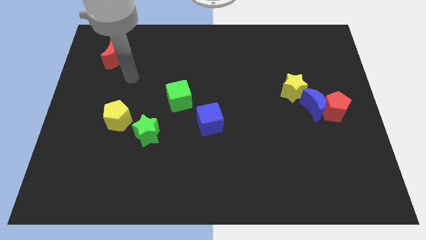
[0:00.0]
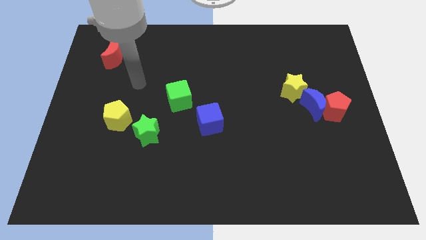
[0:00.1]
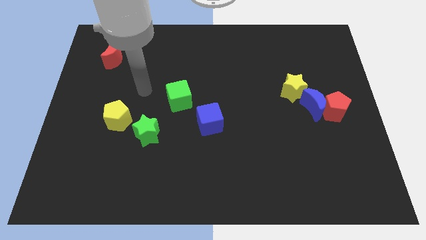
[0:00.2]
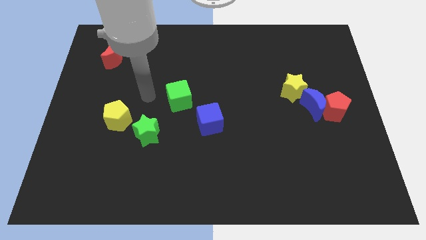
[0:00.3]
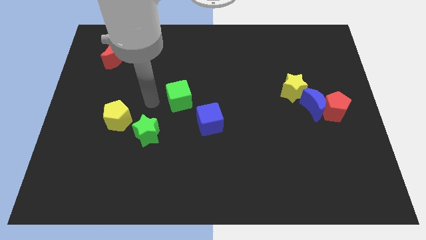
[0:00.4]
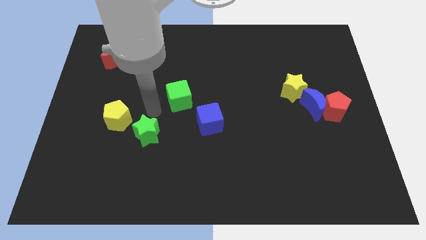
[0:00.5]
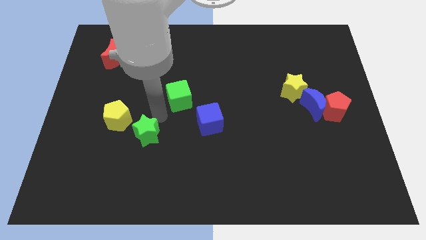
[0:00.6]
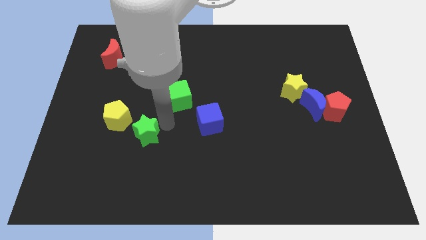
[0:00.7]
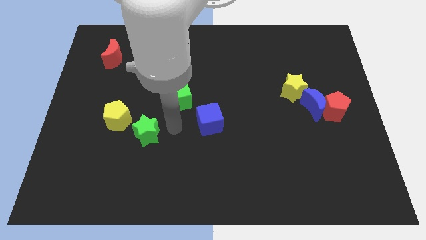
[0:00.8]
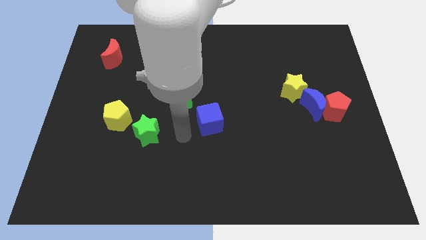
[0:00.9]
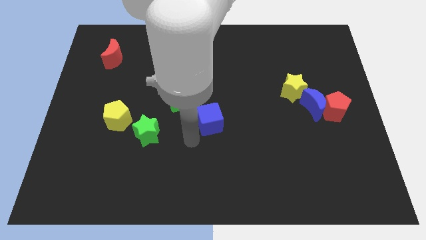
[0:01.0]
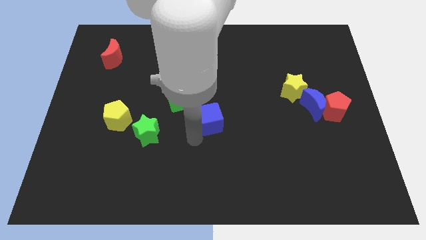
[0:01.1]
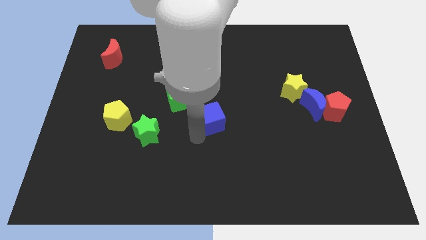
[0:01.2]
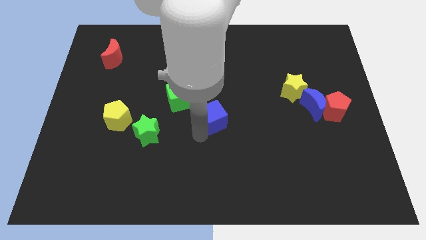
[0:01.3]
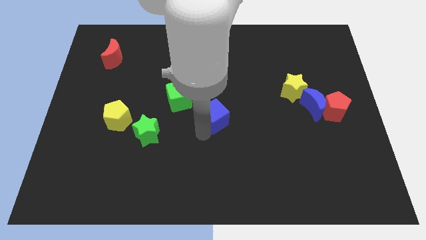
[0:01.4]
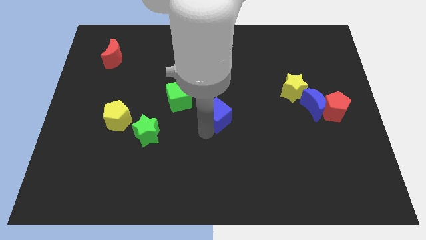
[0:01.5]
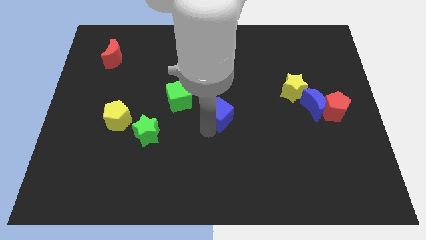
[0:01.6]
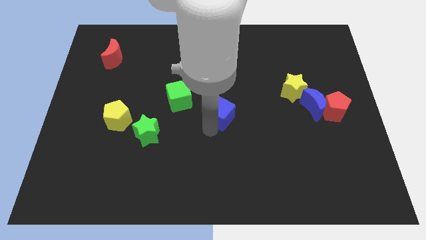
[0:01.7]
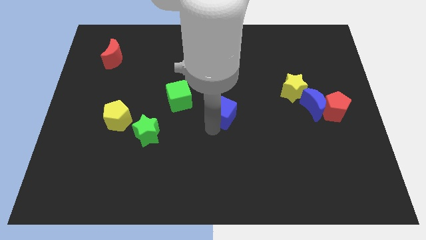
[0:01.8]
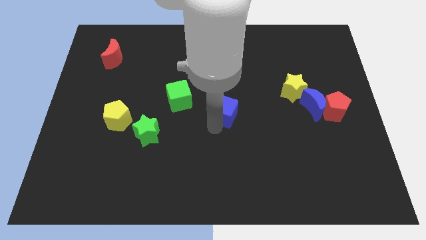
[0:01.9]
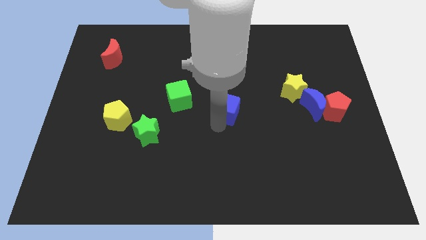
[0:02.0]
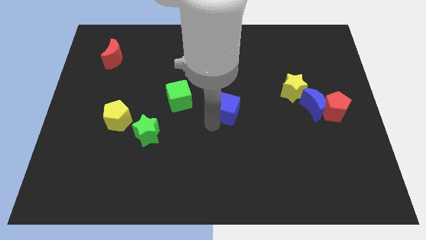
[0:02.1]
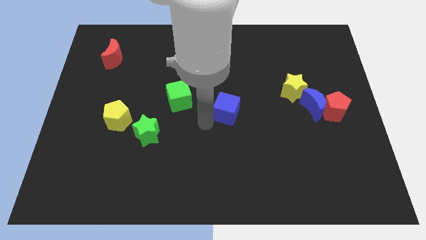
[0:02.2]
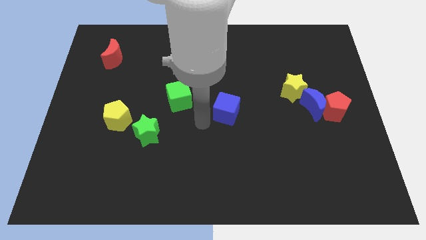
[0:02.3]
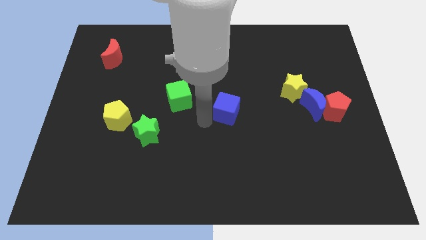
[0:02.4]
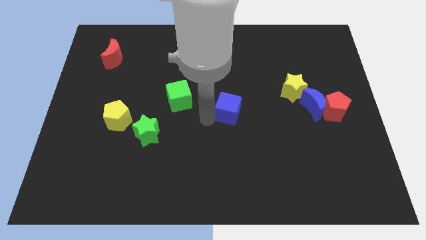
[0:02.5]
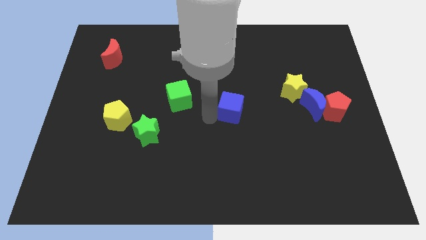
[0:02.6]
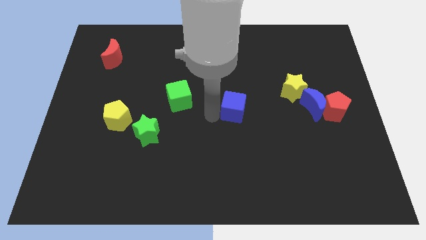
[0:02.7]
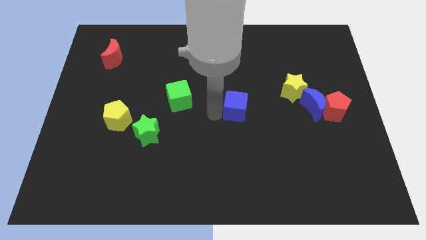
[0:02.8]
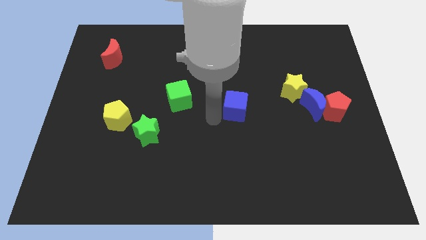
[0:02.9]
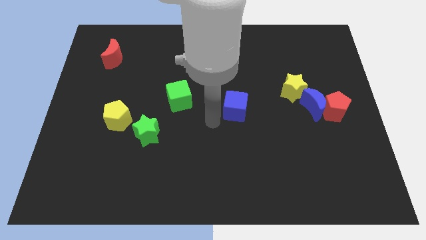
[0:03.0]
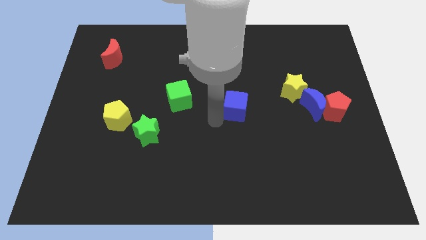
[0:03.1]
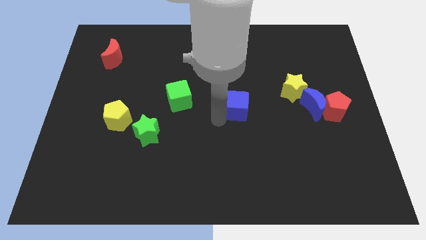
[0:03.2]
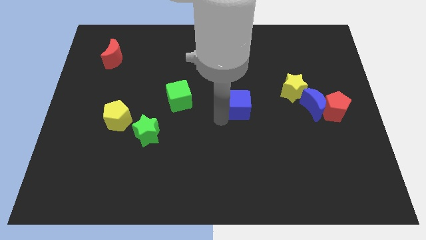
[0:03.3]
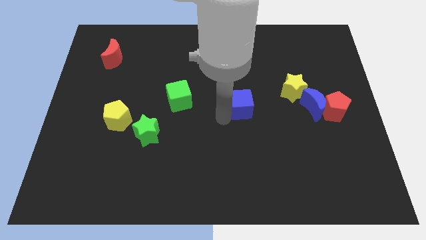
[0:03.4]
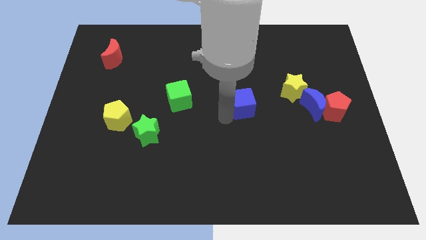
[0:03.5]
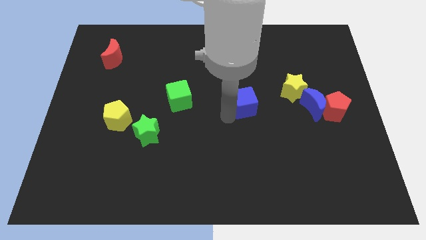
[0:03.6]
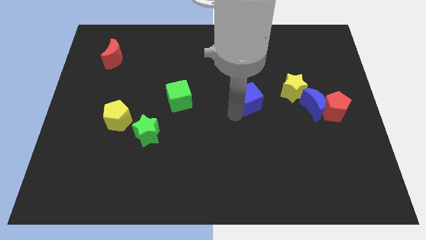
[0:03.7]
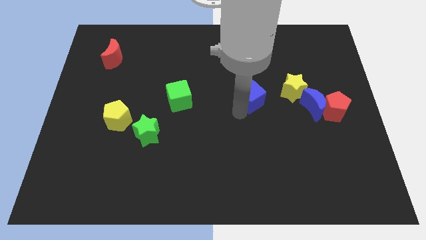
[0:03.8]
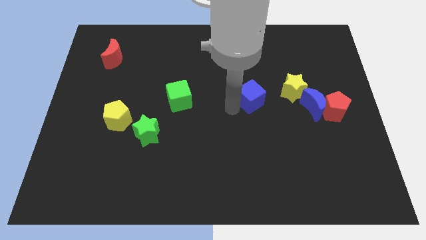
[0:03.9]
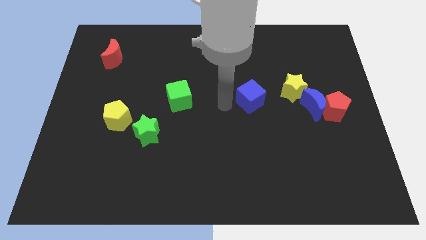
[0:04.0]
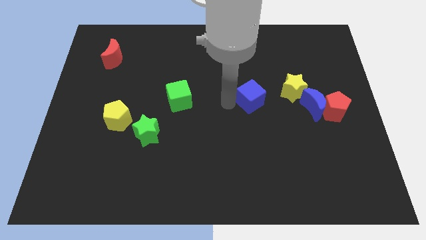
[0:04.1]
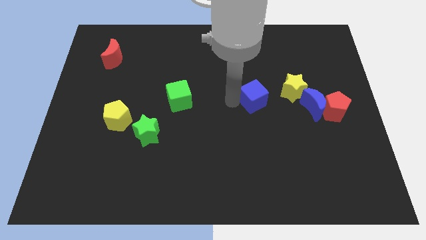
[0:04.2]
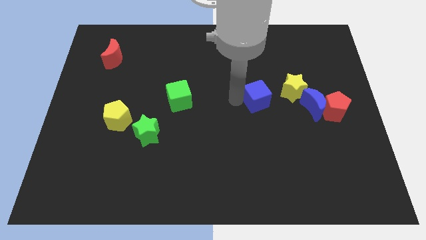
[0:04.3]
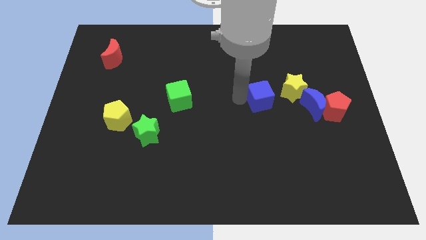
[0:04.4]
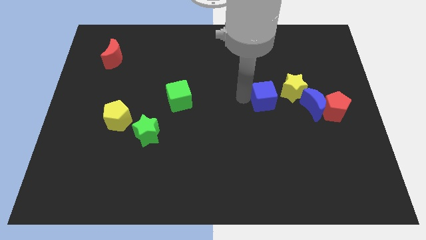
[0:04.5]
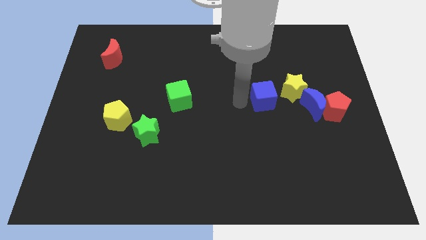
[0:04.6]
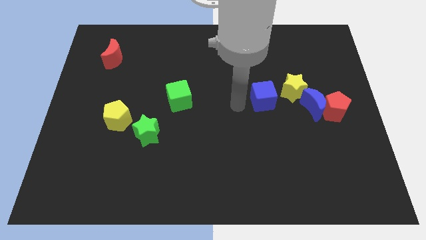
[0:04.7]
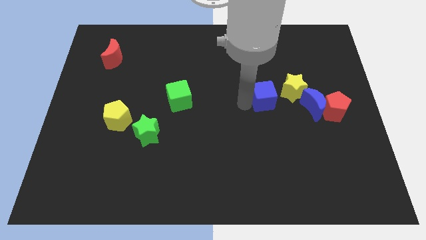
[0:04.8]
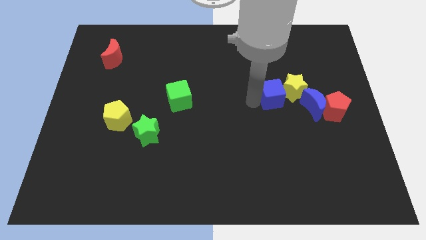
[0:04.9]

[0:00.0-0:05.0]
put the blue cube towards the yellow star

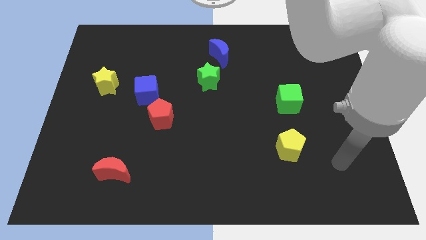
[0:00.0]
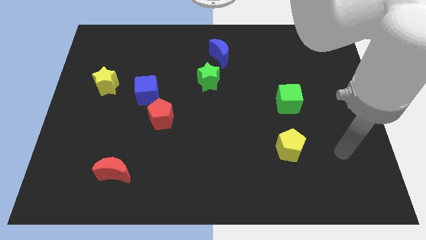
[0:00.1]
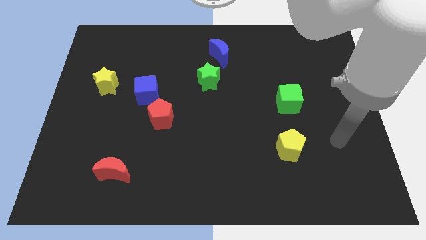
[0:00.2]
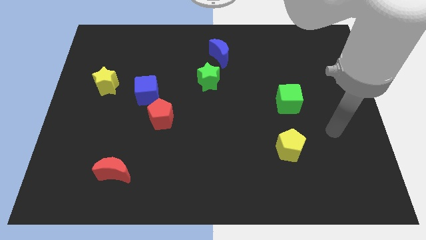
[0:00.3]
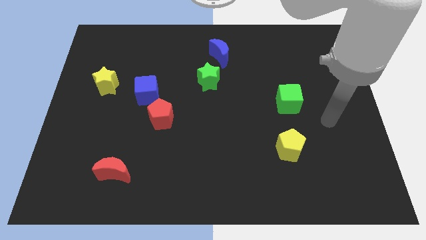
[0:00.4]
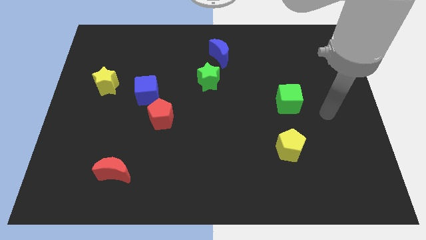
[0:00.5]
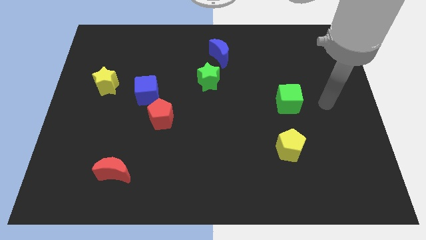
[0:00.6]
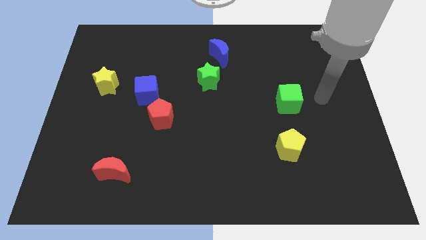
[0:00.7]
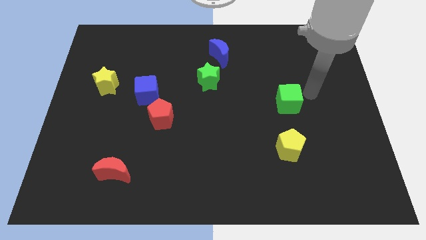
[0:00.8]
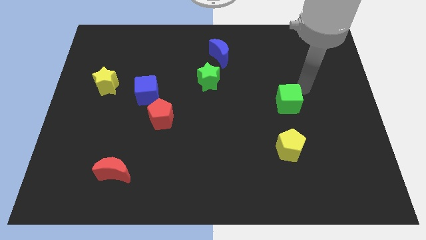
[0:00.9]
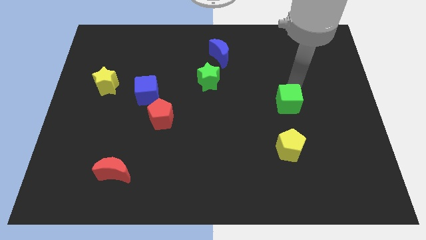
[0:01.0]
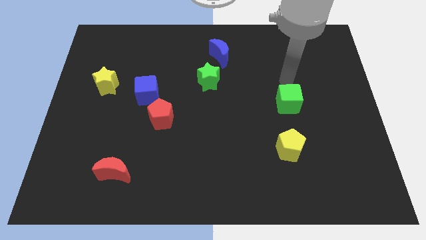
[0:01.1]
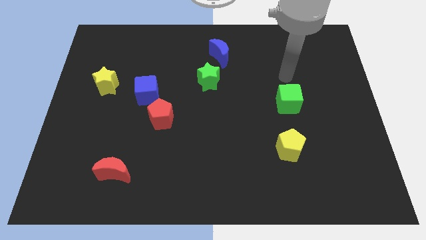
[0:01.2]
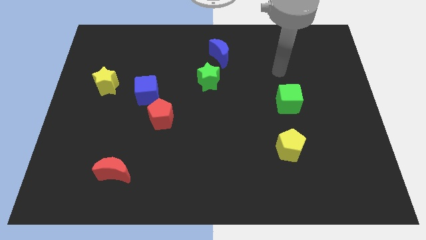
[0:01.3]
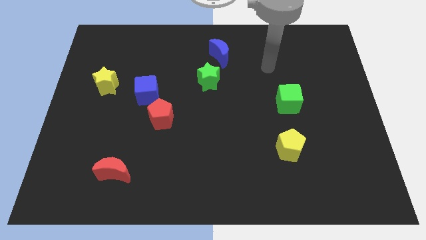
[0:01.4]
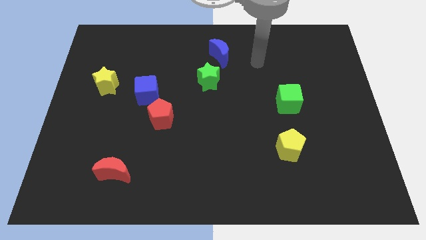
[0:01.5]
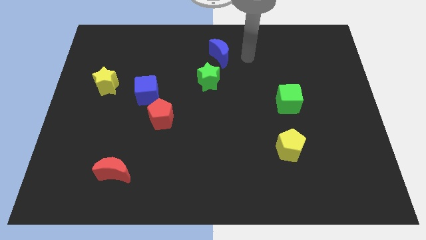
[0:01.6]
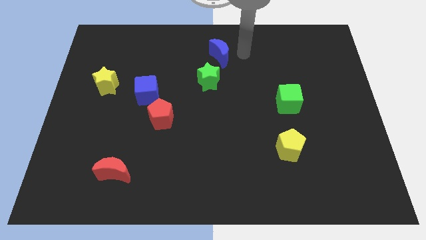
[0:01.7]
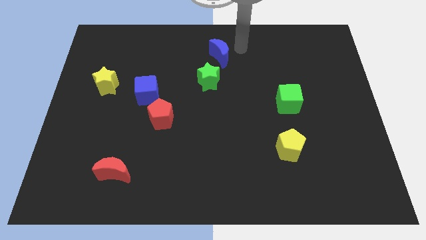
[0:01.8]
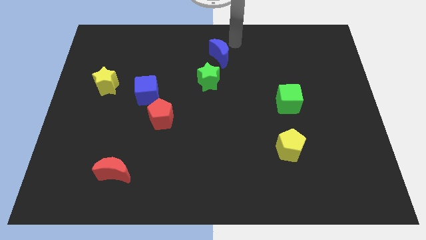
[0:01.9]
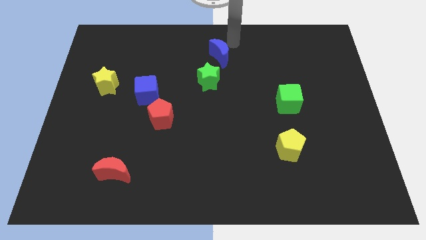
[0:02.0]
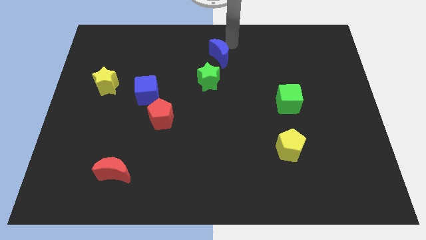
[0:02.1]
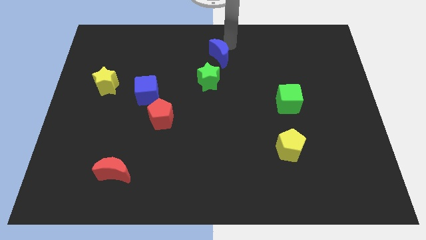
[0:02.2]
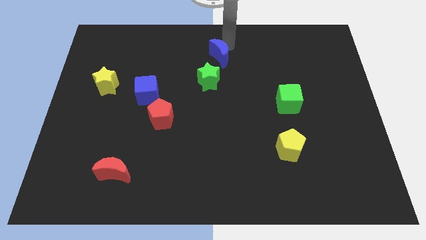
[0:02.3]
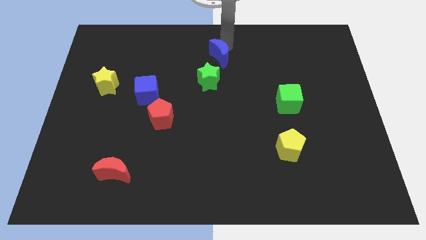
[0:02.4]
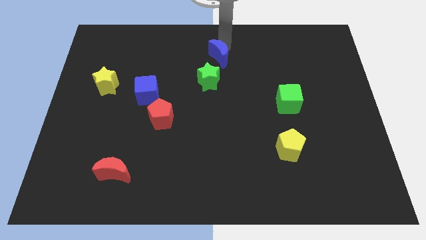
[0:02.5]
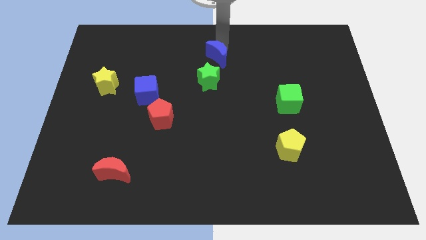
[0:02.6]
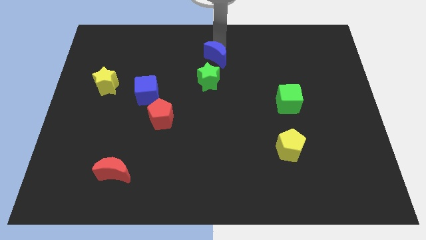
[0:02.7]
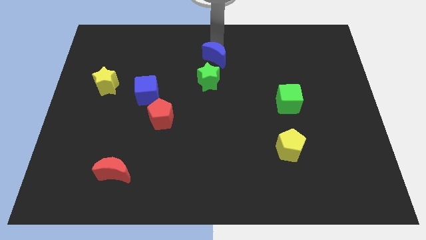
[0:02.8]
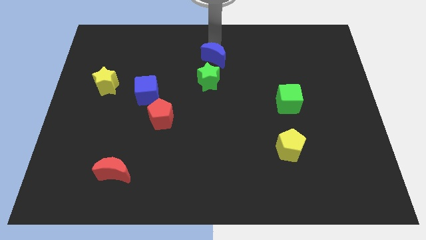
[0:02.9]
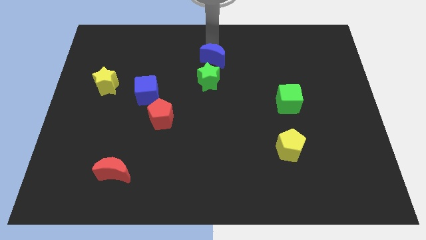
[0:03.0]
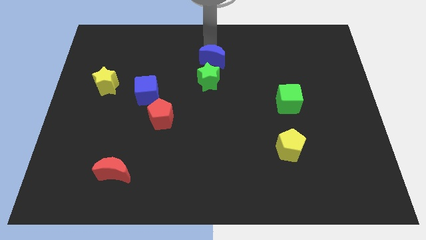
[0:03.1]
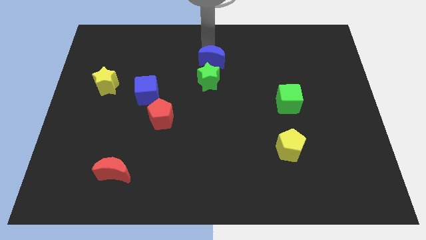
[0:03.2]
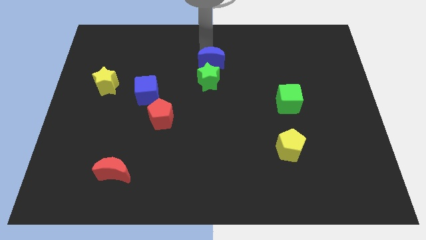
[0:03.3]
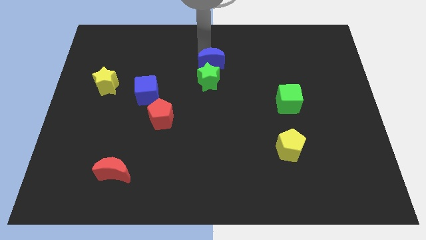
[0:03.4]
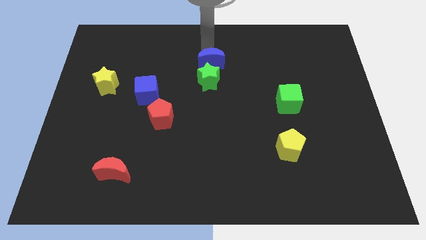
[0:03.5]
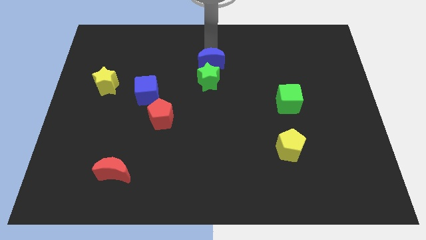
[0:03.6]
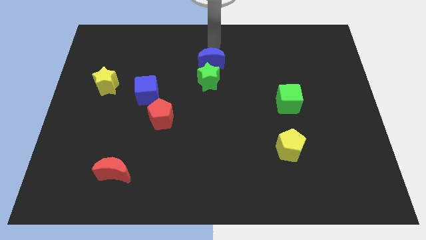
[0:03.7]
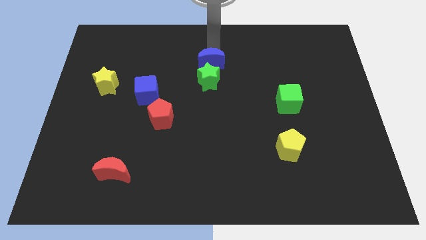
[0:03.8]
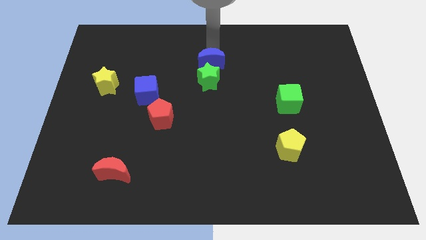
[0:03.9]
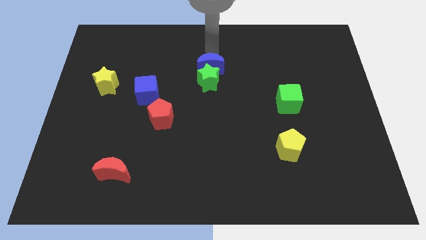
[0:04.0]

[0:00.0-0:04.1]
push the blue moon to the green star
